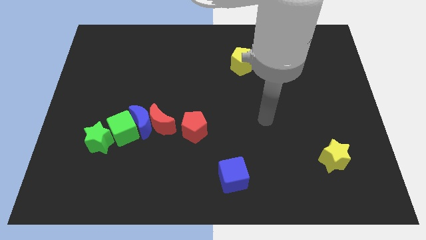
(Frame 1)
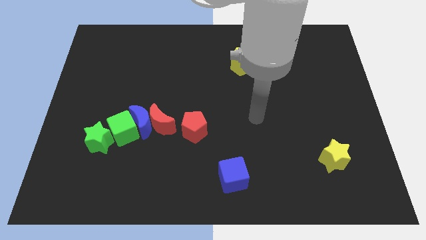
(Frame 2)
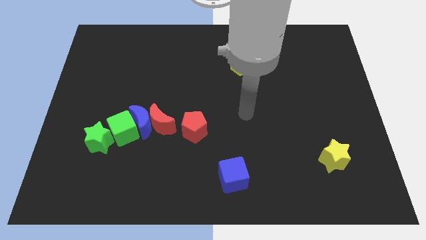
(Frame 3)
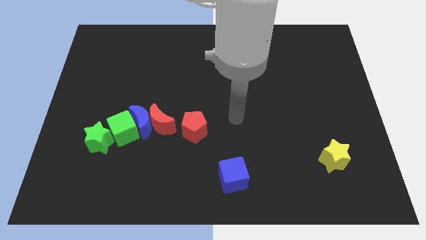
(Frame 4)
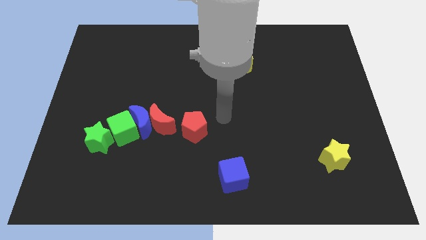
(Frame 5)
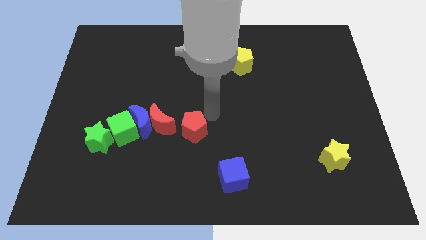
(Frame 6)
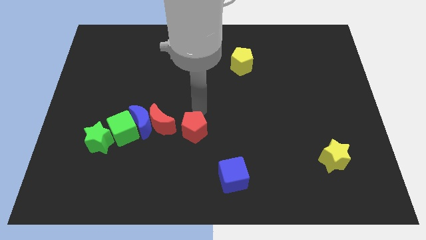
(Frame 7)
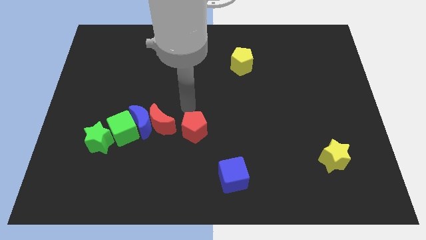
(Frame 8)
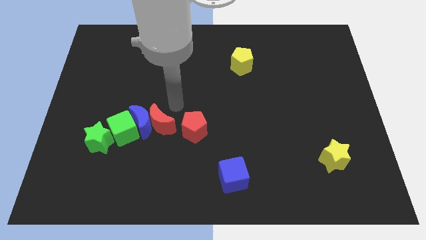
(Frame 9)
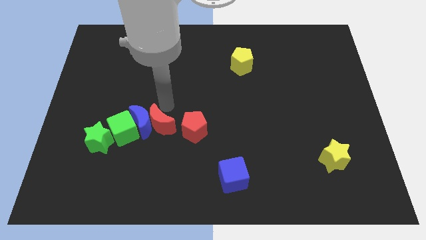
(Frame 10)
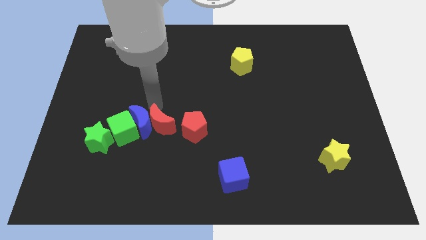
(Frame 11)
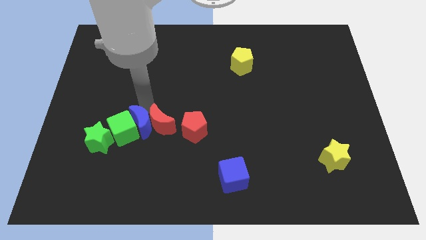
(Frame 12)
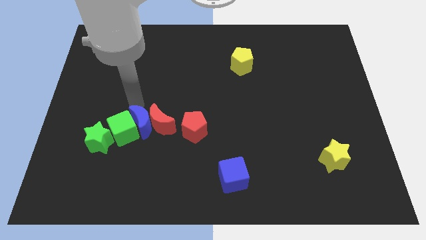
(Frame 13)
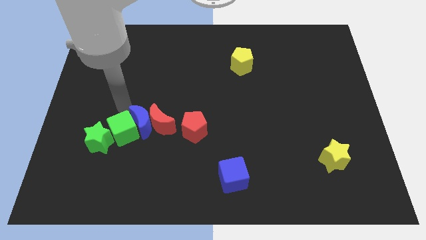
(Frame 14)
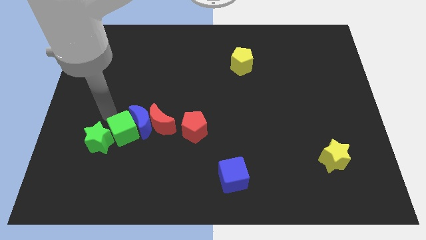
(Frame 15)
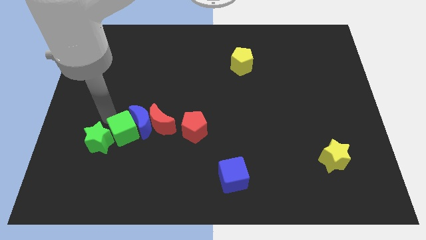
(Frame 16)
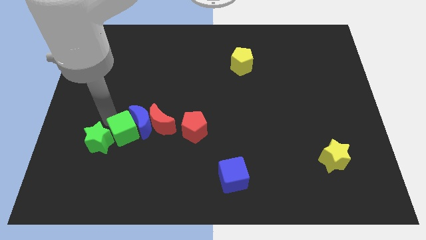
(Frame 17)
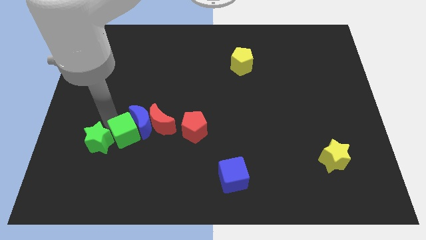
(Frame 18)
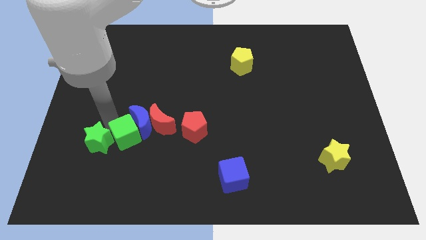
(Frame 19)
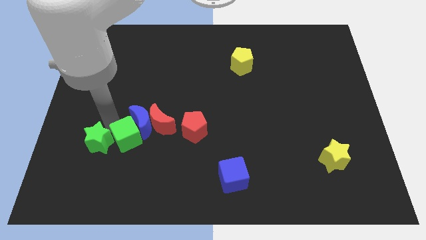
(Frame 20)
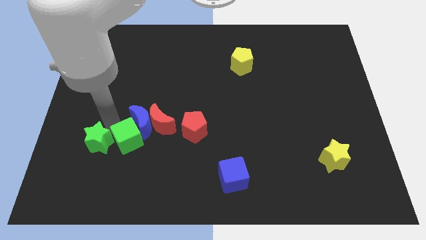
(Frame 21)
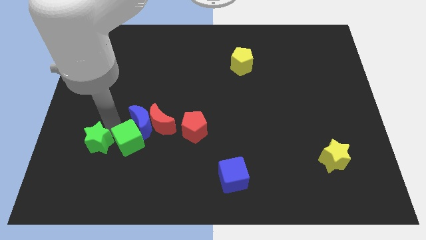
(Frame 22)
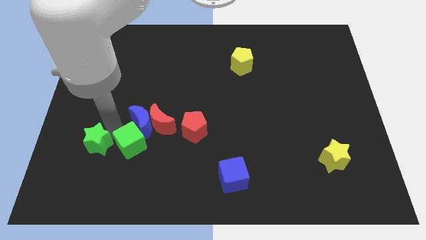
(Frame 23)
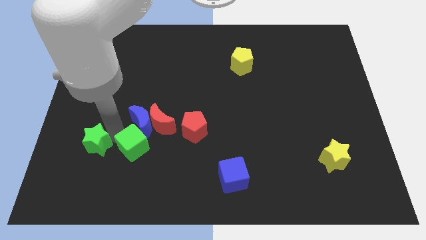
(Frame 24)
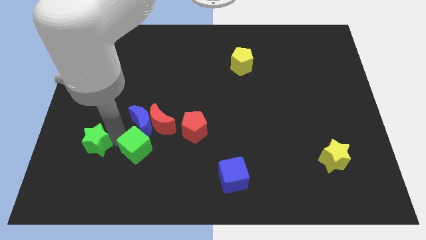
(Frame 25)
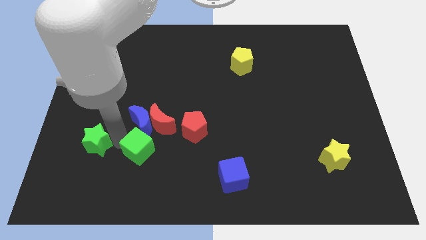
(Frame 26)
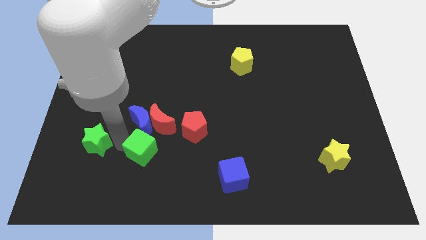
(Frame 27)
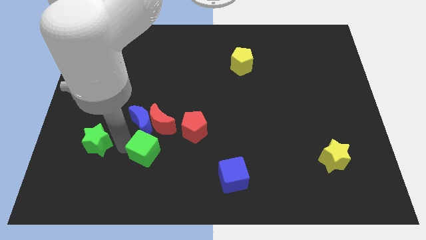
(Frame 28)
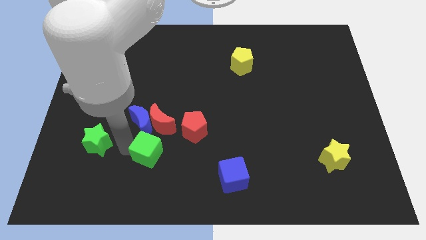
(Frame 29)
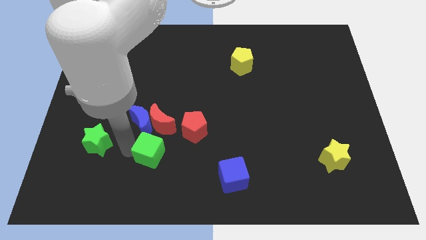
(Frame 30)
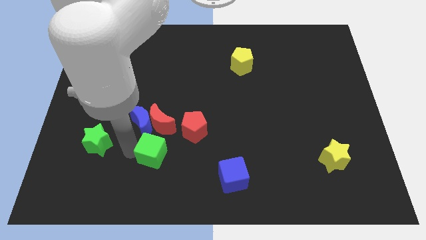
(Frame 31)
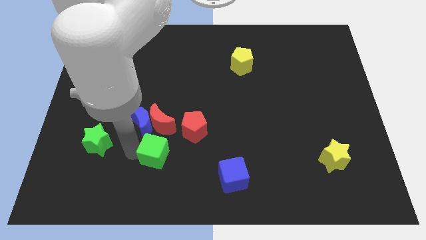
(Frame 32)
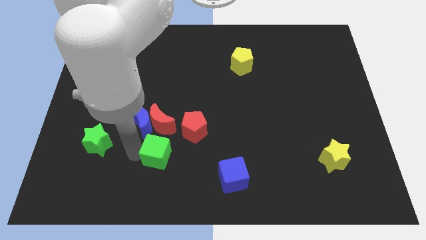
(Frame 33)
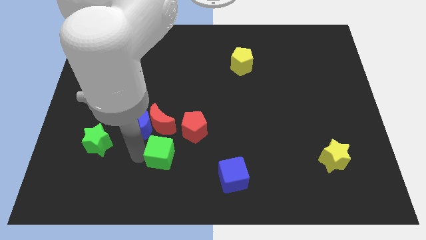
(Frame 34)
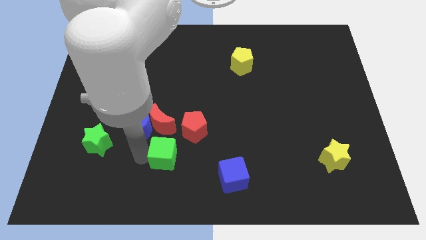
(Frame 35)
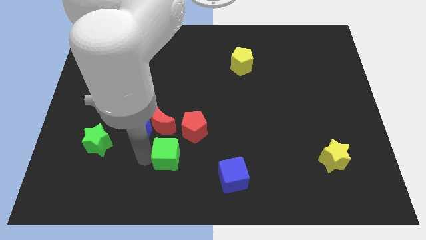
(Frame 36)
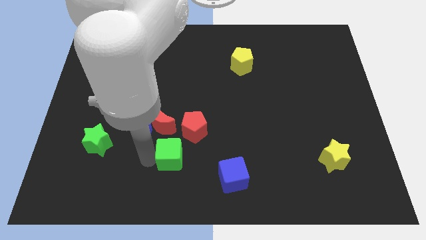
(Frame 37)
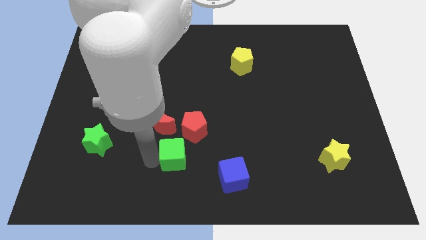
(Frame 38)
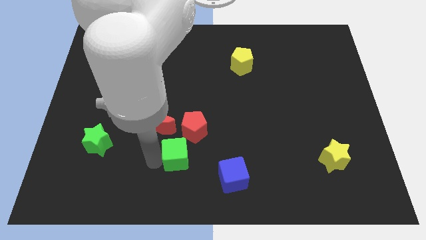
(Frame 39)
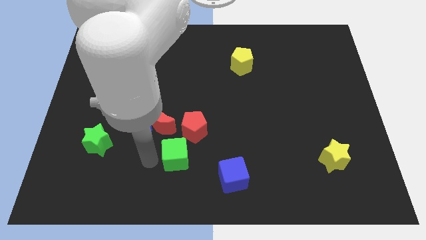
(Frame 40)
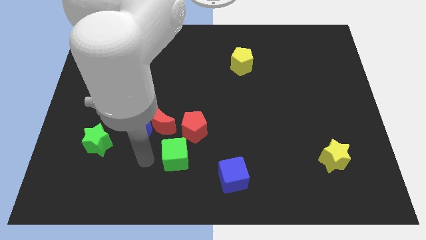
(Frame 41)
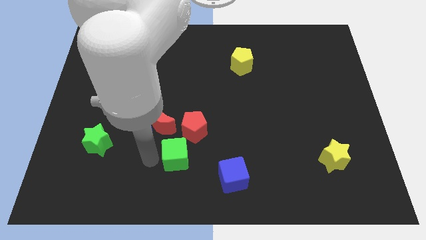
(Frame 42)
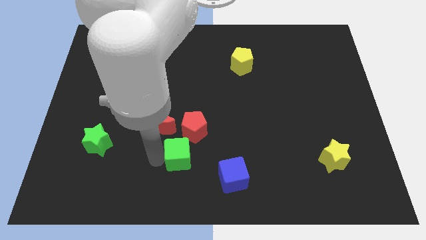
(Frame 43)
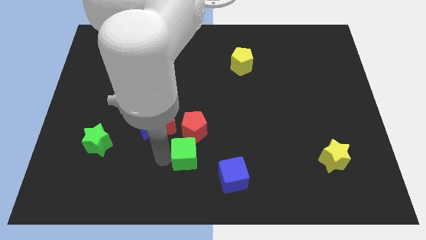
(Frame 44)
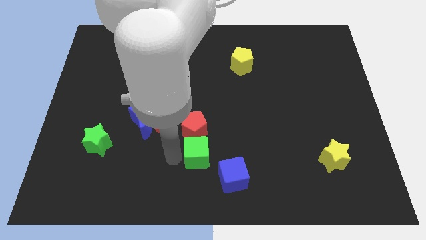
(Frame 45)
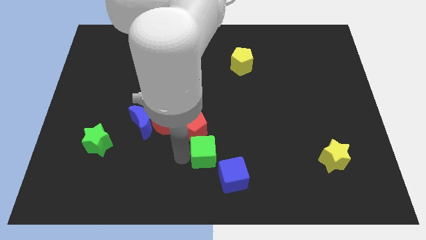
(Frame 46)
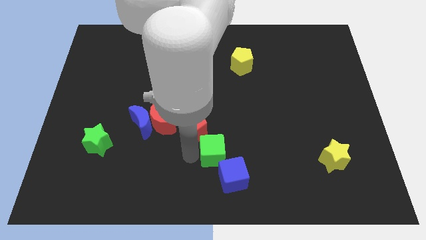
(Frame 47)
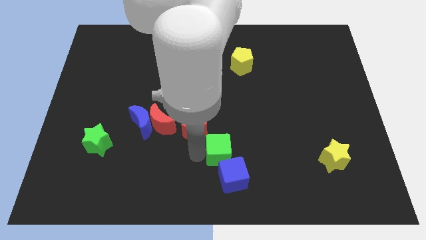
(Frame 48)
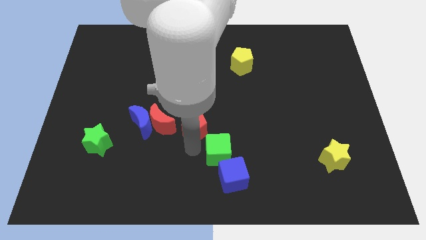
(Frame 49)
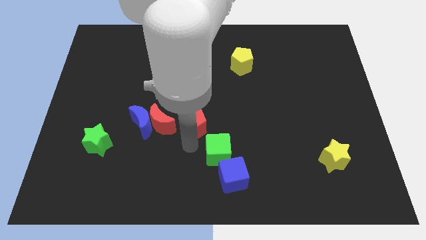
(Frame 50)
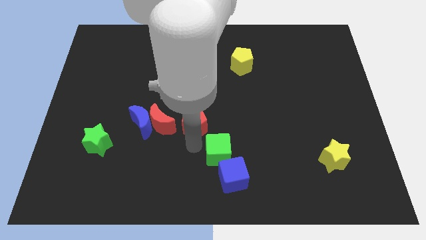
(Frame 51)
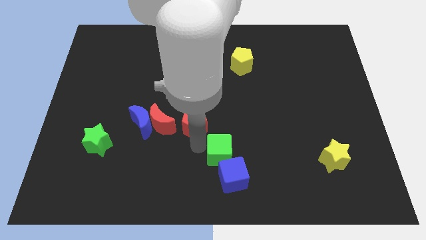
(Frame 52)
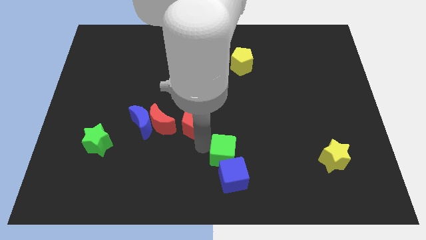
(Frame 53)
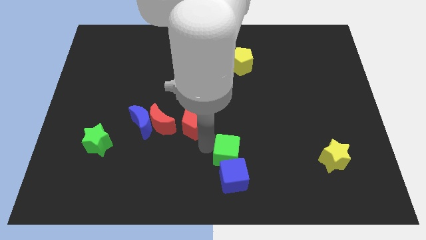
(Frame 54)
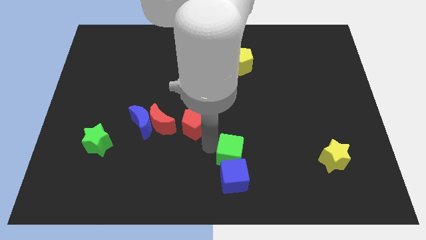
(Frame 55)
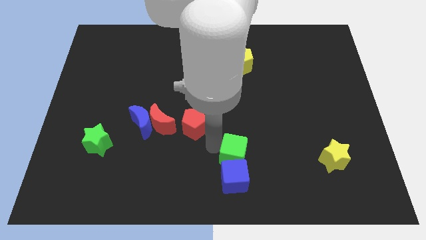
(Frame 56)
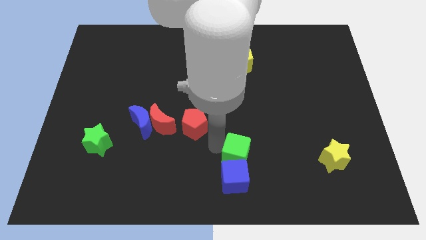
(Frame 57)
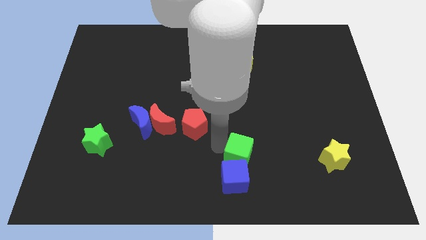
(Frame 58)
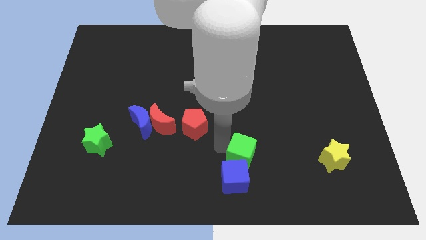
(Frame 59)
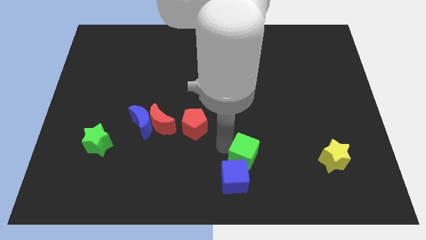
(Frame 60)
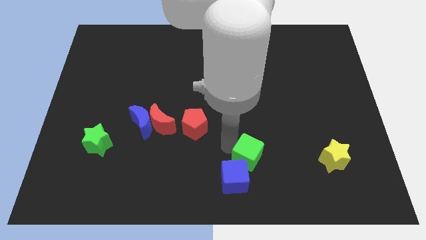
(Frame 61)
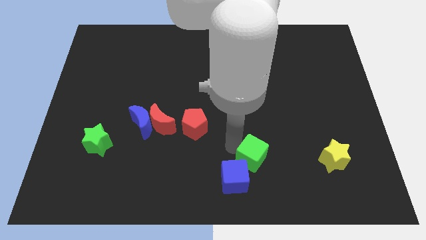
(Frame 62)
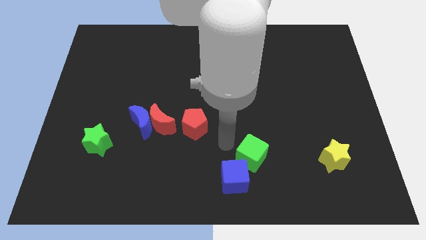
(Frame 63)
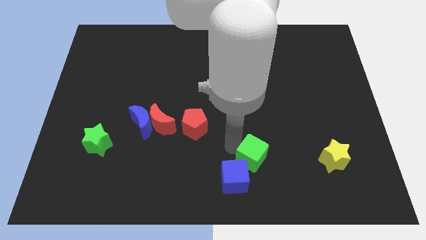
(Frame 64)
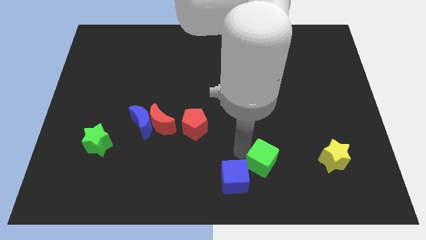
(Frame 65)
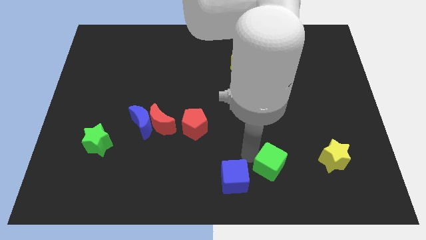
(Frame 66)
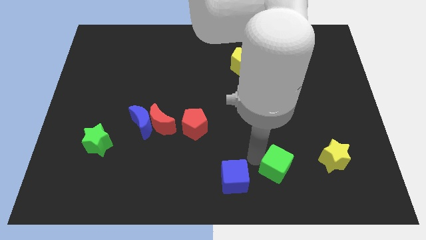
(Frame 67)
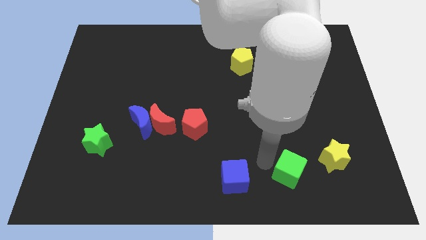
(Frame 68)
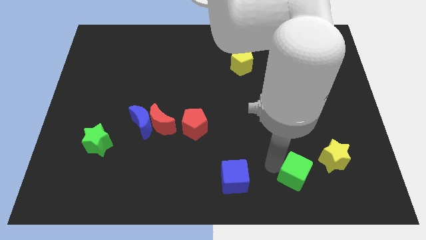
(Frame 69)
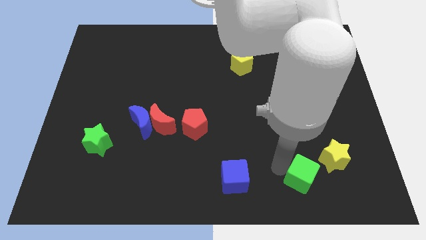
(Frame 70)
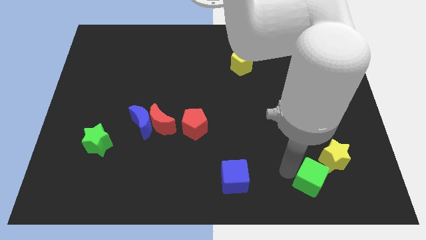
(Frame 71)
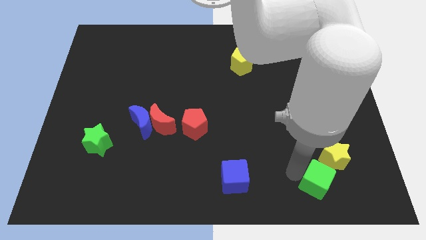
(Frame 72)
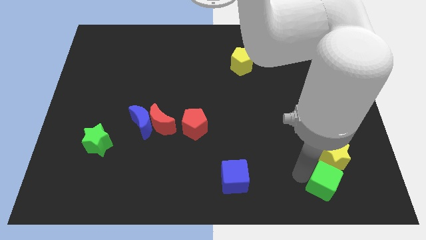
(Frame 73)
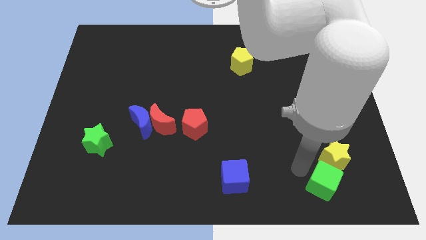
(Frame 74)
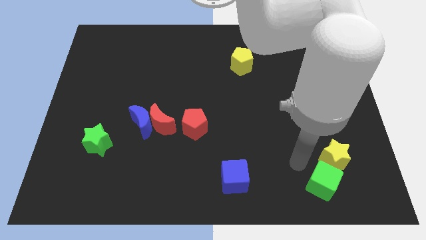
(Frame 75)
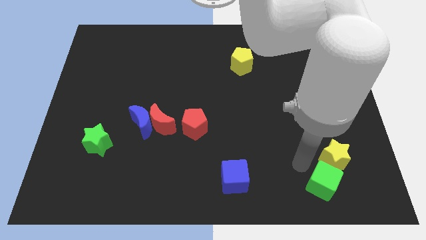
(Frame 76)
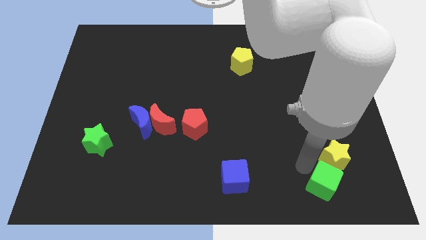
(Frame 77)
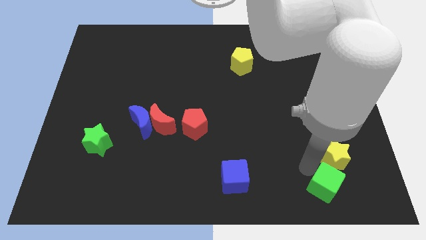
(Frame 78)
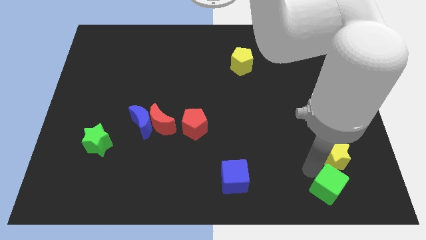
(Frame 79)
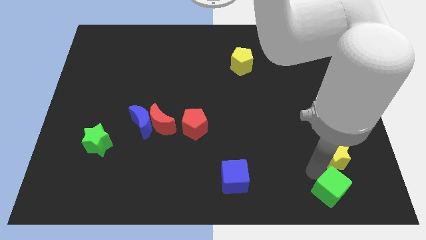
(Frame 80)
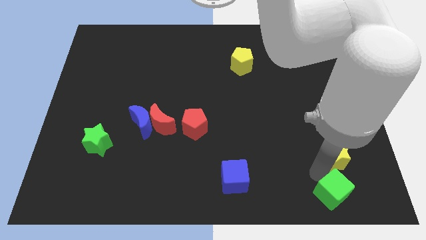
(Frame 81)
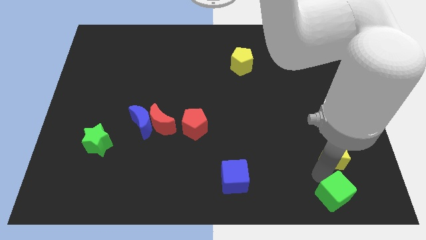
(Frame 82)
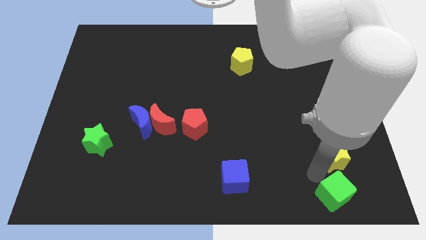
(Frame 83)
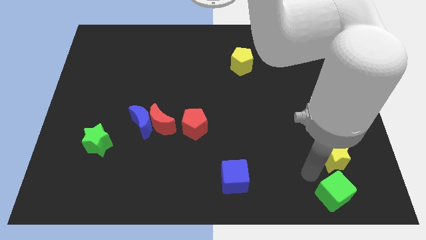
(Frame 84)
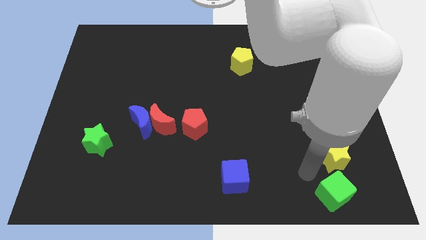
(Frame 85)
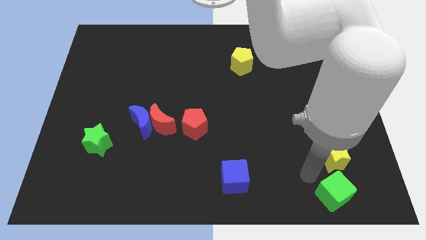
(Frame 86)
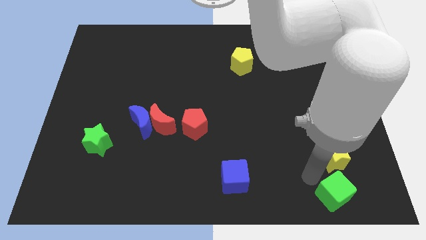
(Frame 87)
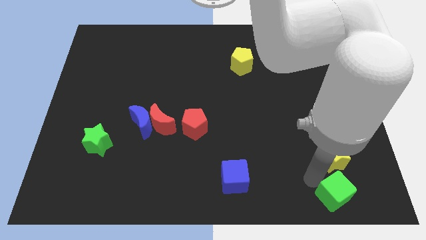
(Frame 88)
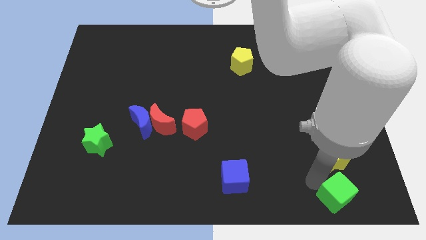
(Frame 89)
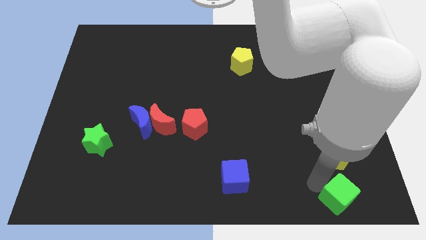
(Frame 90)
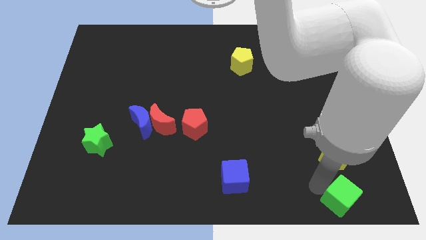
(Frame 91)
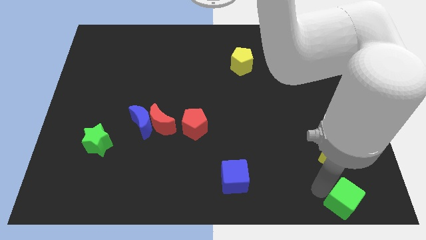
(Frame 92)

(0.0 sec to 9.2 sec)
push the green cube to the bottom right
